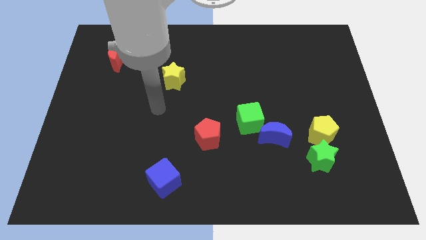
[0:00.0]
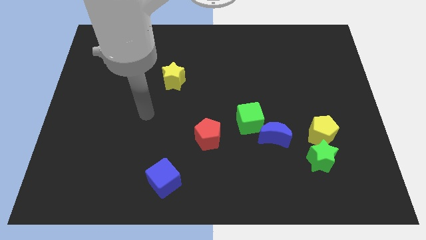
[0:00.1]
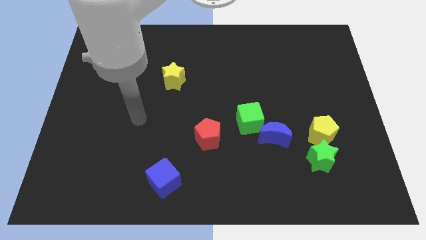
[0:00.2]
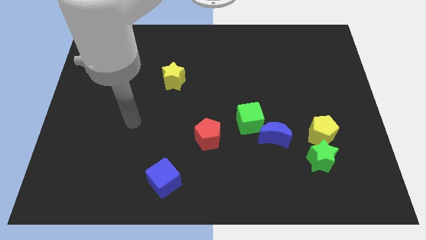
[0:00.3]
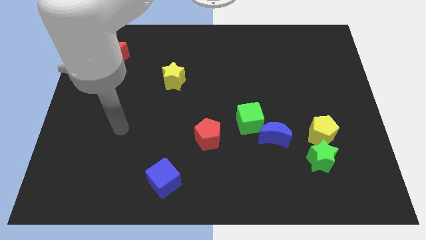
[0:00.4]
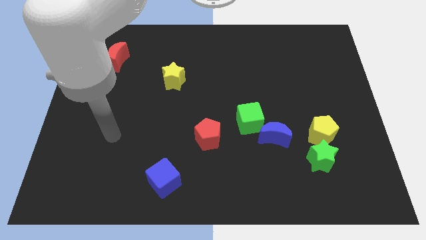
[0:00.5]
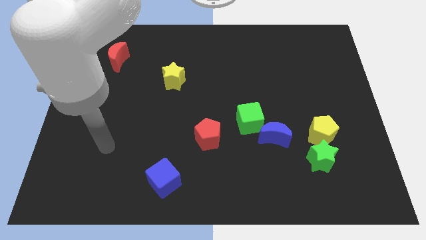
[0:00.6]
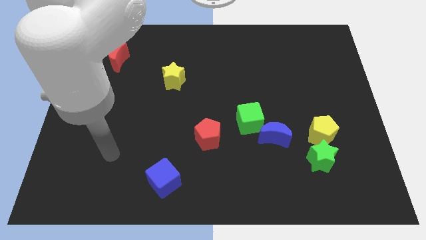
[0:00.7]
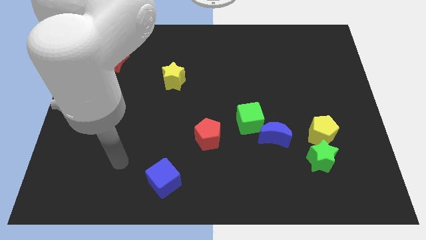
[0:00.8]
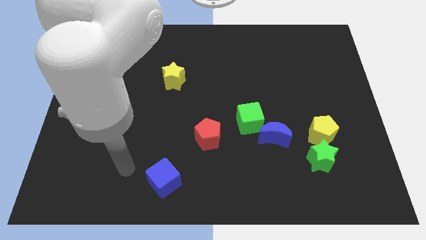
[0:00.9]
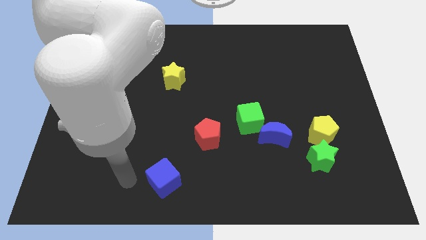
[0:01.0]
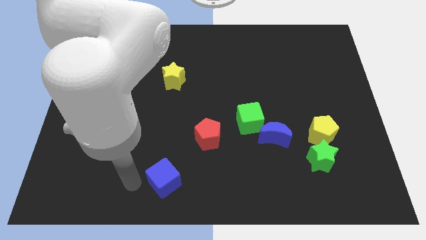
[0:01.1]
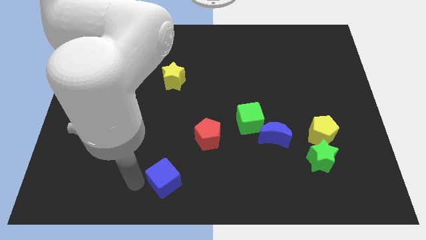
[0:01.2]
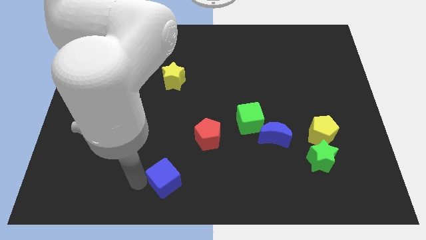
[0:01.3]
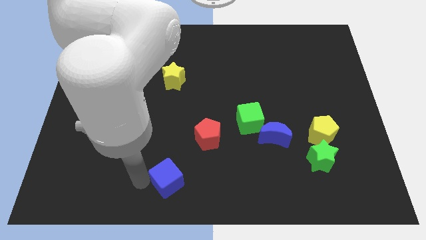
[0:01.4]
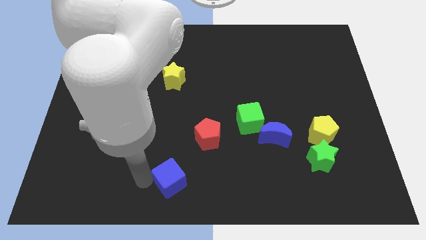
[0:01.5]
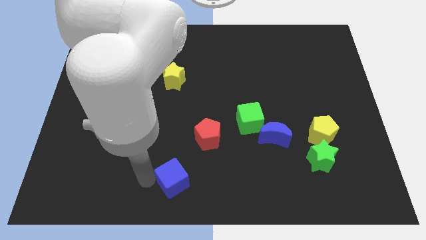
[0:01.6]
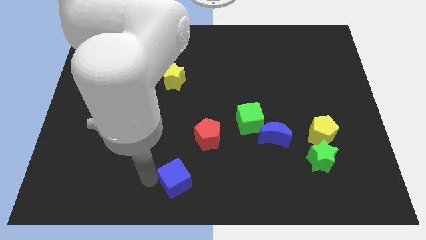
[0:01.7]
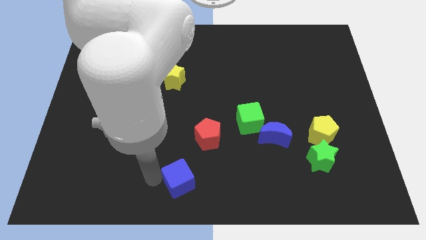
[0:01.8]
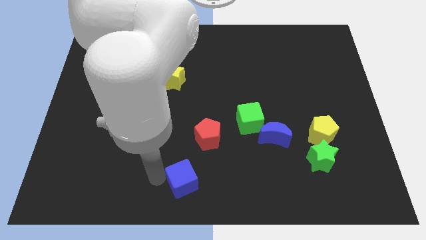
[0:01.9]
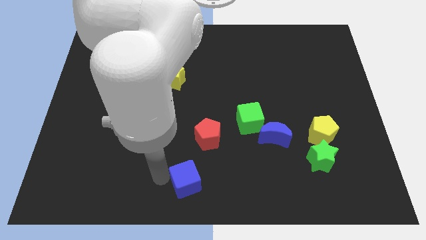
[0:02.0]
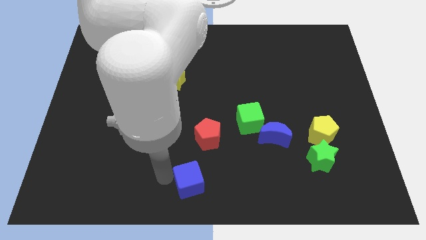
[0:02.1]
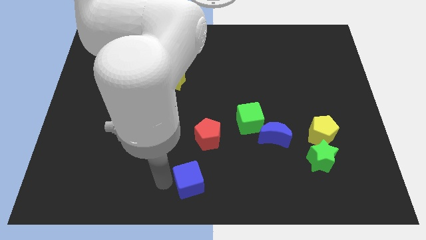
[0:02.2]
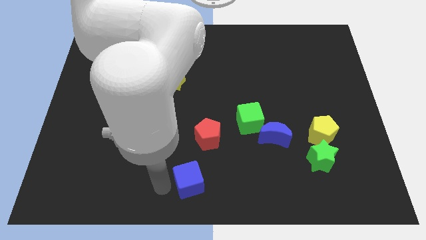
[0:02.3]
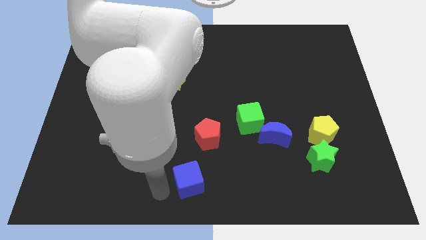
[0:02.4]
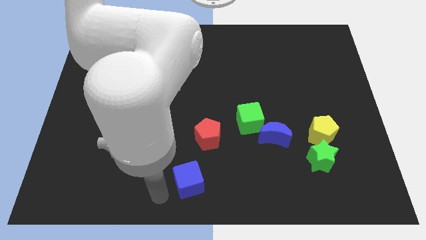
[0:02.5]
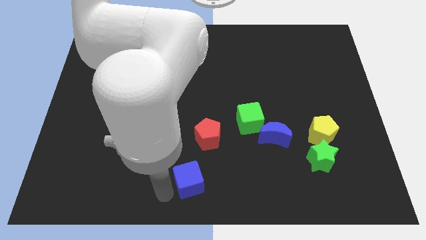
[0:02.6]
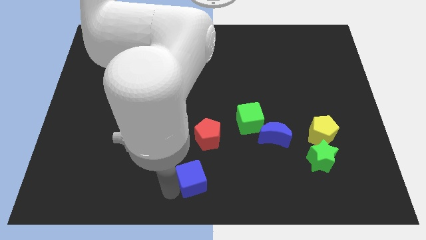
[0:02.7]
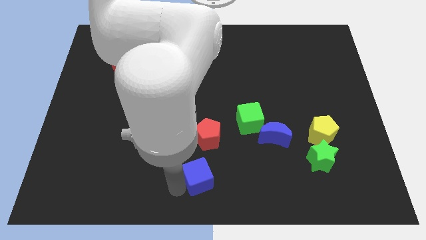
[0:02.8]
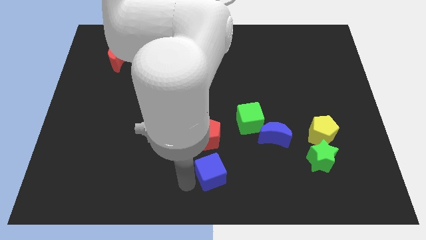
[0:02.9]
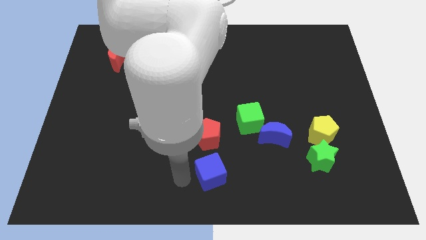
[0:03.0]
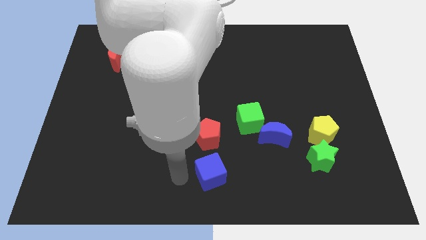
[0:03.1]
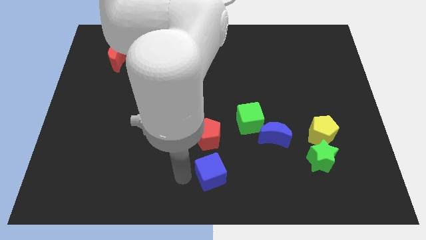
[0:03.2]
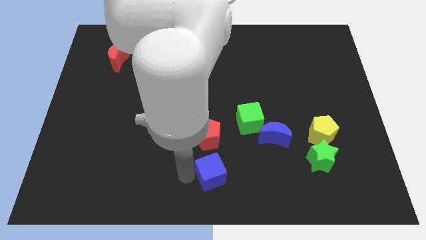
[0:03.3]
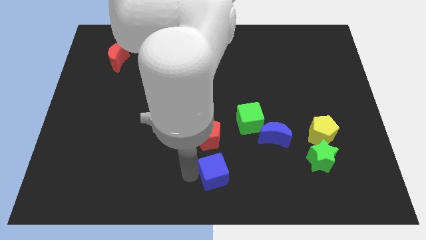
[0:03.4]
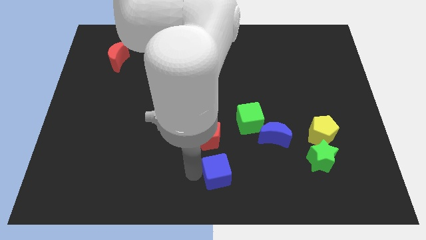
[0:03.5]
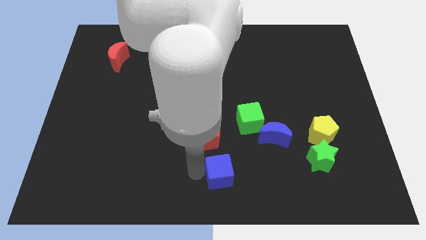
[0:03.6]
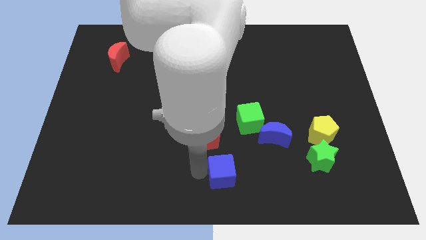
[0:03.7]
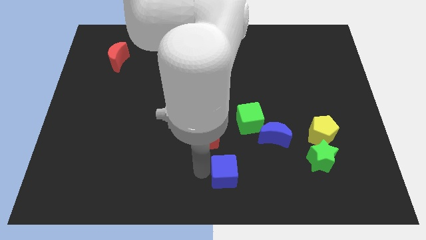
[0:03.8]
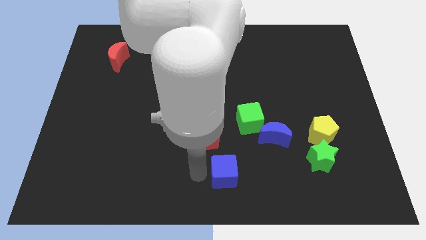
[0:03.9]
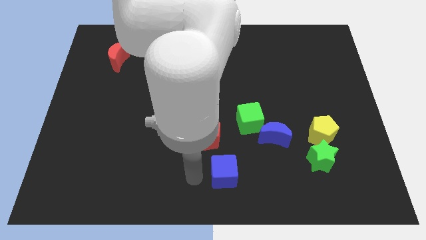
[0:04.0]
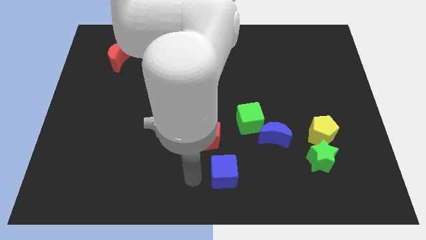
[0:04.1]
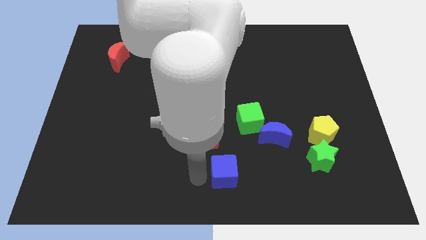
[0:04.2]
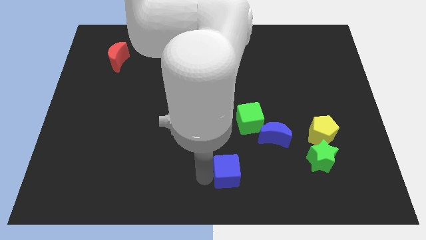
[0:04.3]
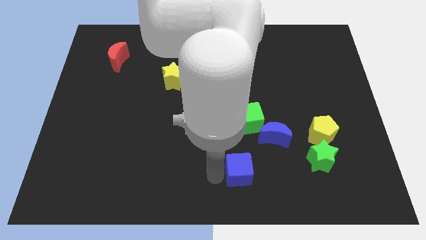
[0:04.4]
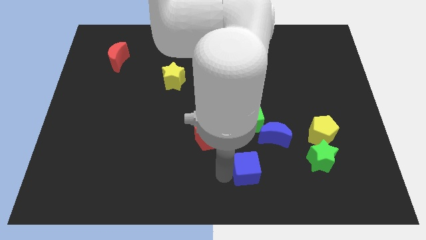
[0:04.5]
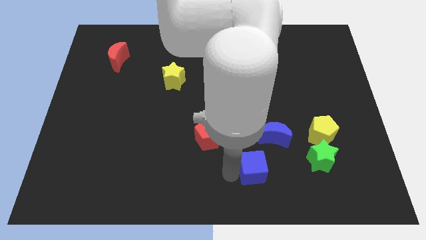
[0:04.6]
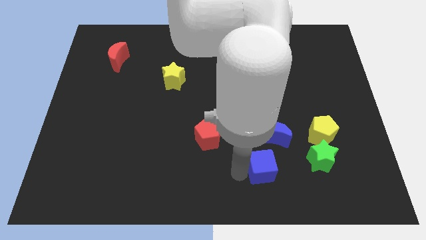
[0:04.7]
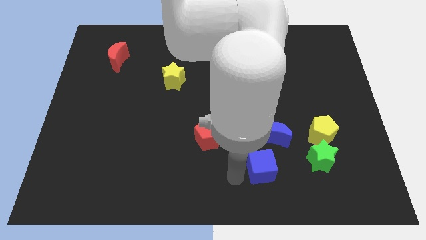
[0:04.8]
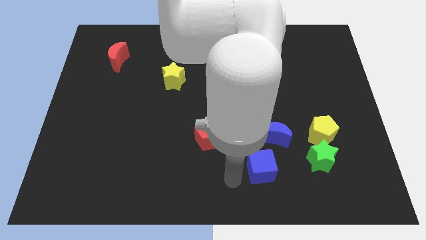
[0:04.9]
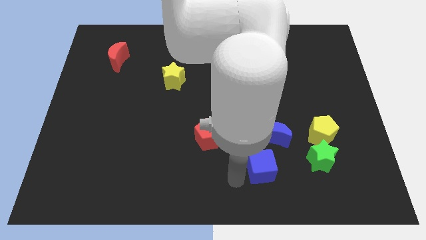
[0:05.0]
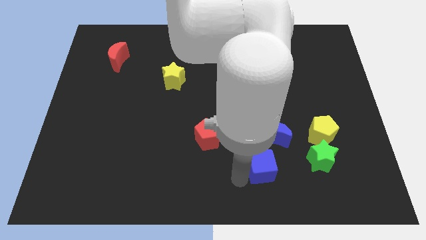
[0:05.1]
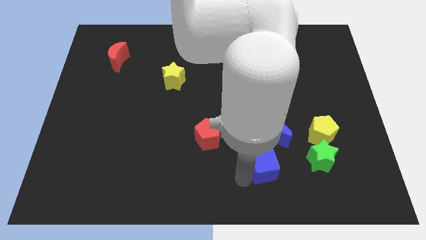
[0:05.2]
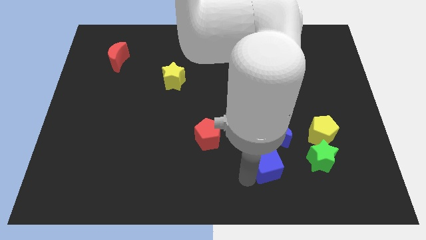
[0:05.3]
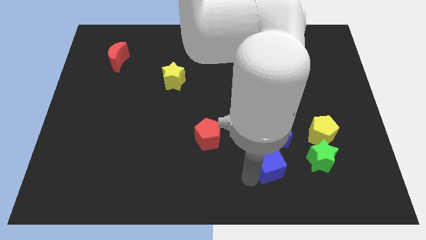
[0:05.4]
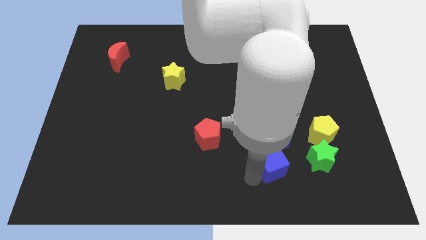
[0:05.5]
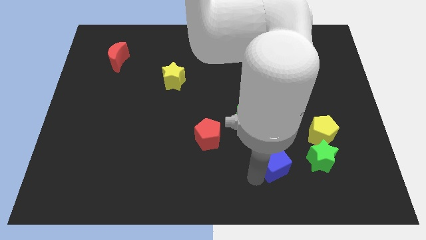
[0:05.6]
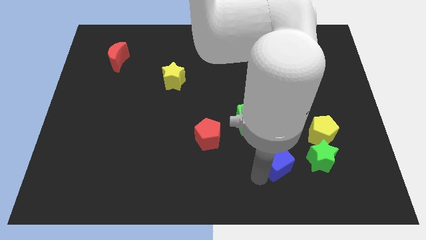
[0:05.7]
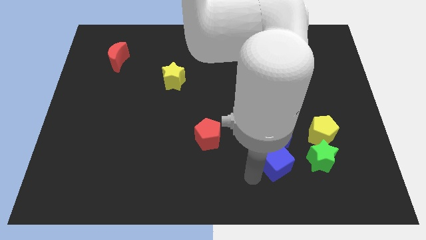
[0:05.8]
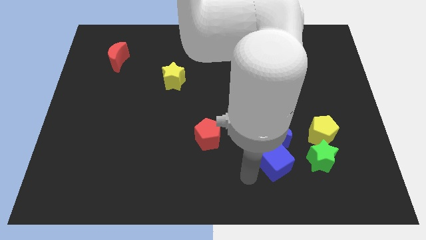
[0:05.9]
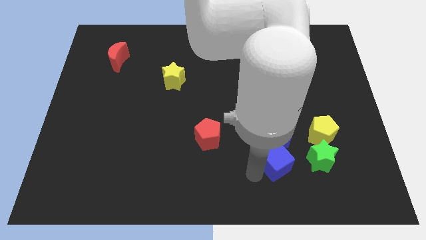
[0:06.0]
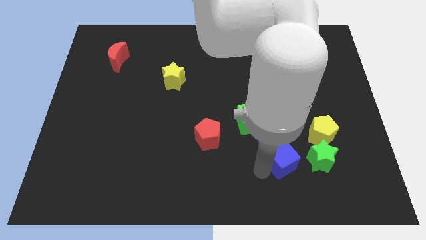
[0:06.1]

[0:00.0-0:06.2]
slide the blue cube diagonally down and to the left of the yellow pentagon

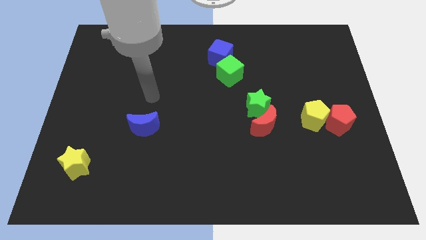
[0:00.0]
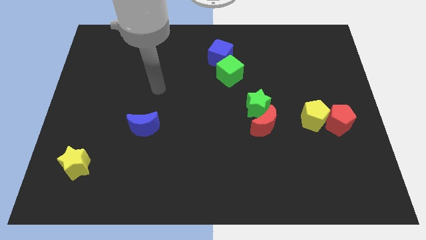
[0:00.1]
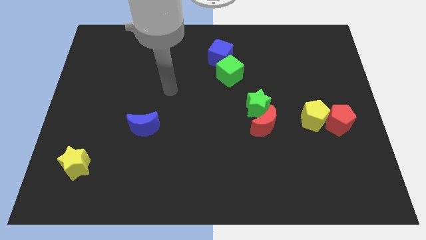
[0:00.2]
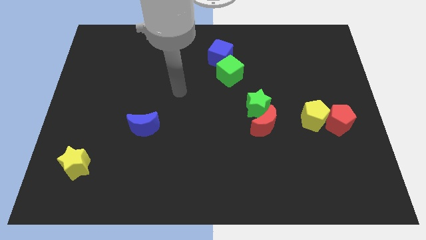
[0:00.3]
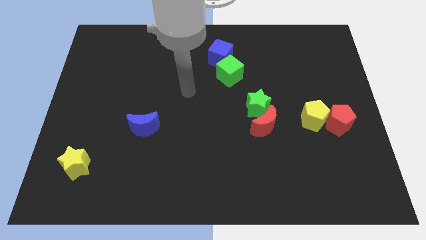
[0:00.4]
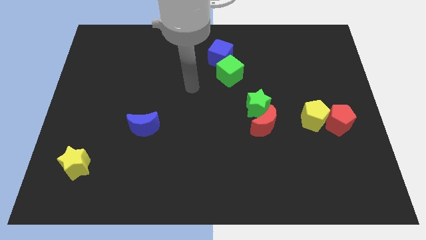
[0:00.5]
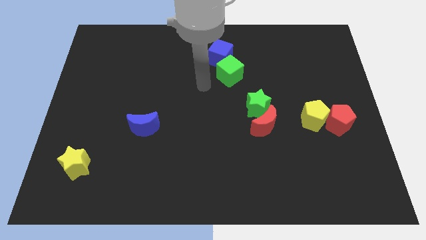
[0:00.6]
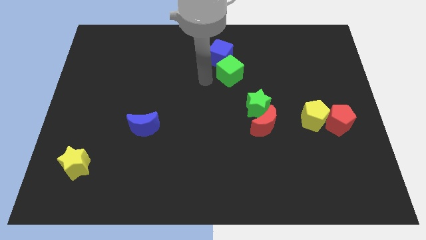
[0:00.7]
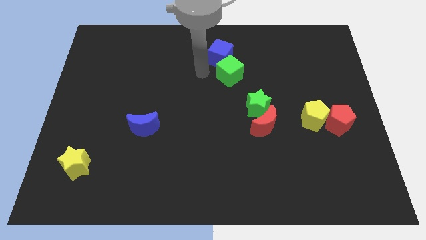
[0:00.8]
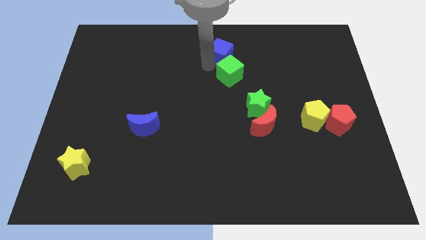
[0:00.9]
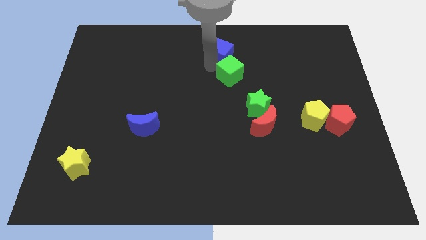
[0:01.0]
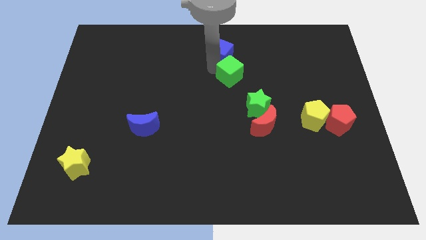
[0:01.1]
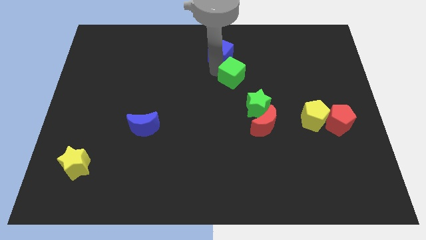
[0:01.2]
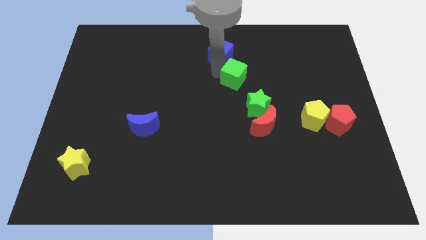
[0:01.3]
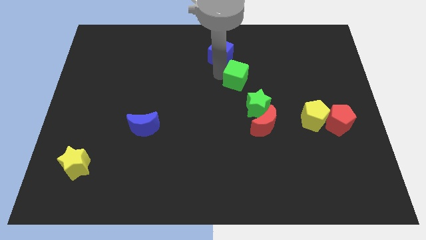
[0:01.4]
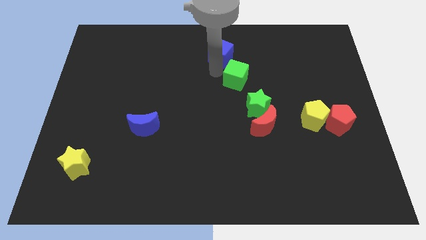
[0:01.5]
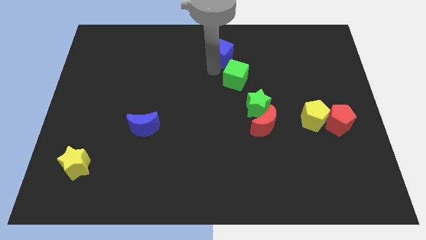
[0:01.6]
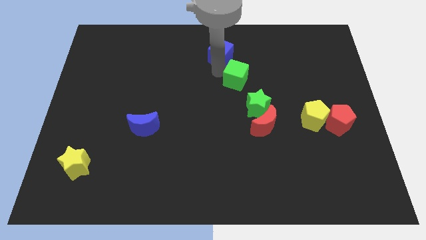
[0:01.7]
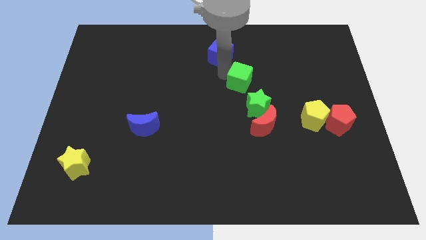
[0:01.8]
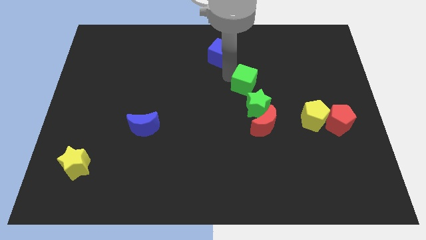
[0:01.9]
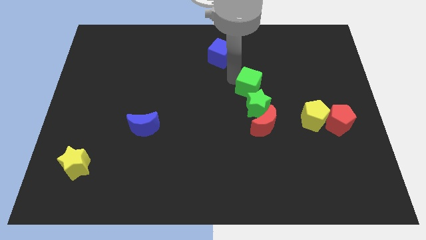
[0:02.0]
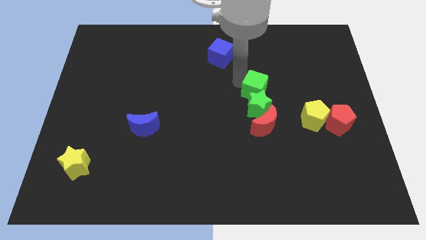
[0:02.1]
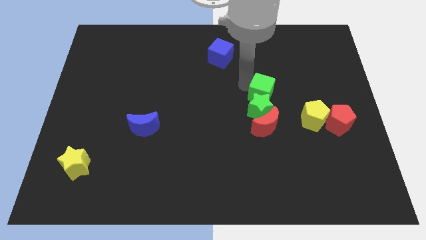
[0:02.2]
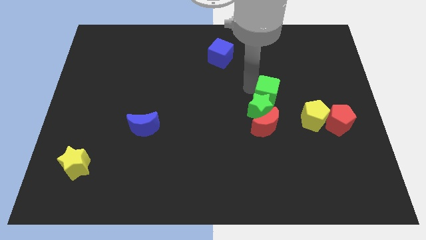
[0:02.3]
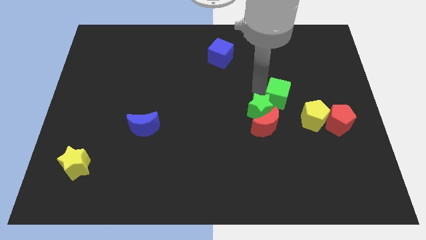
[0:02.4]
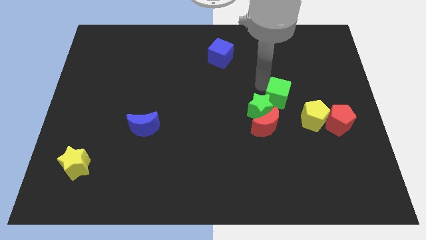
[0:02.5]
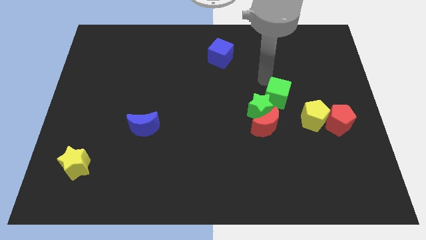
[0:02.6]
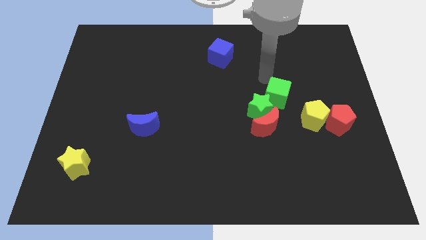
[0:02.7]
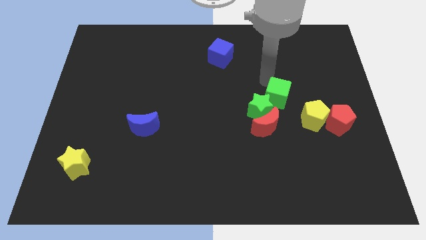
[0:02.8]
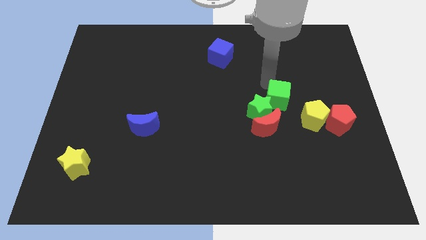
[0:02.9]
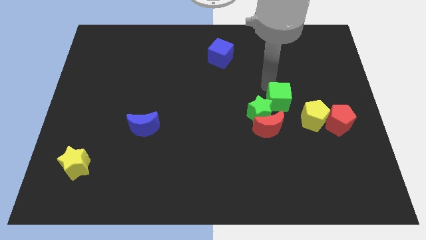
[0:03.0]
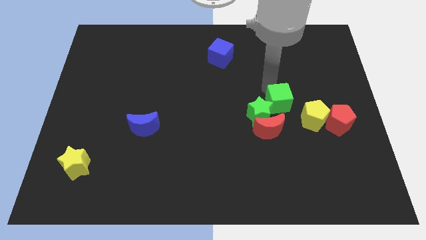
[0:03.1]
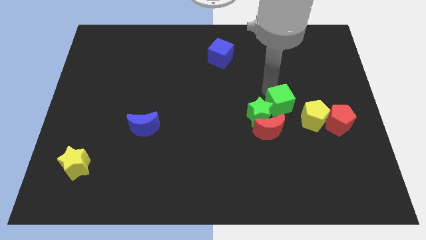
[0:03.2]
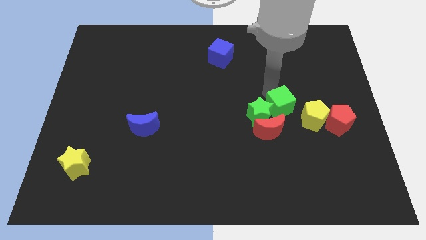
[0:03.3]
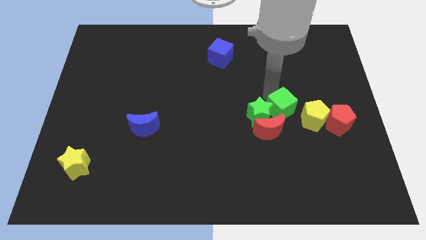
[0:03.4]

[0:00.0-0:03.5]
move the green cube just left of the red pentagon
